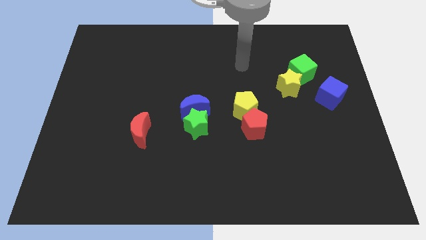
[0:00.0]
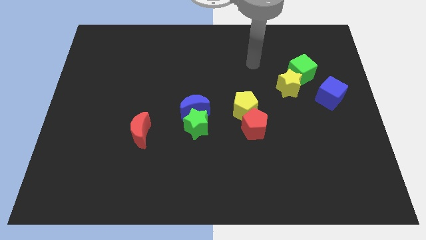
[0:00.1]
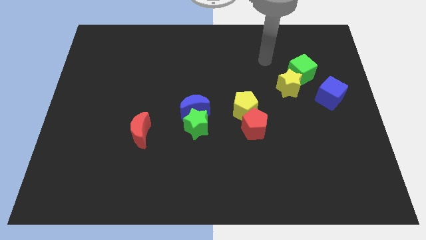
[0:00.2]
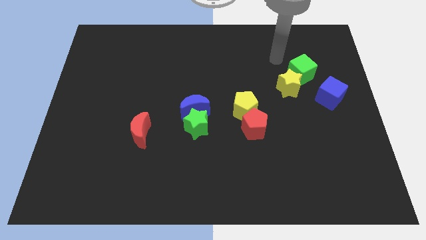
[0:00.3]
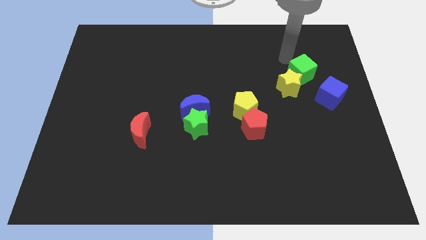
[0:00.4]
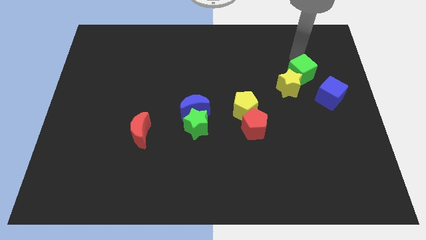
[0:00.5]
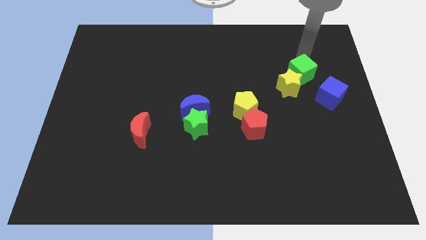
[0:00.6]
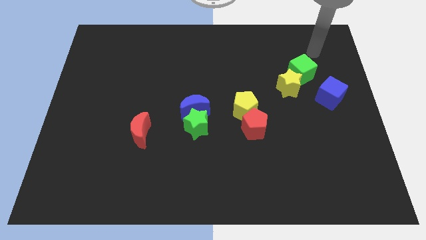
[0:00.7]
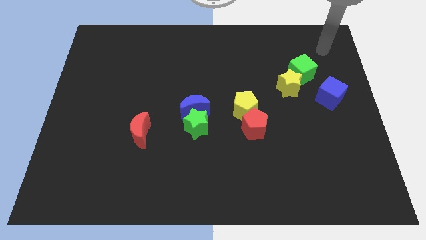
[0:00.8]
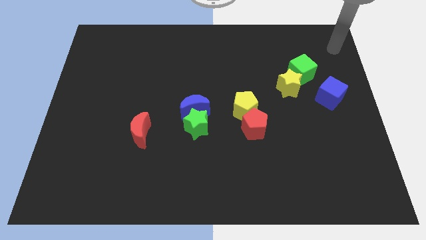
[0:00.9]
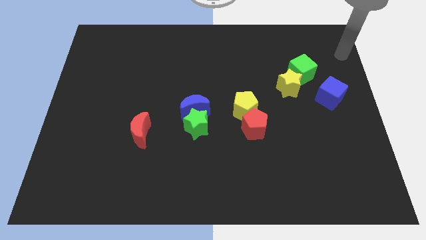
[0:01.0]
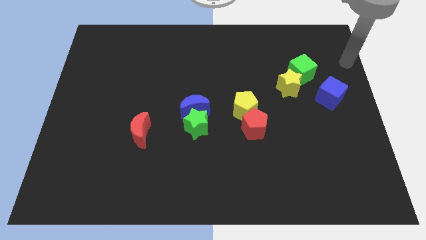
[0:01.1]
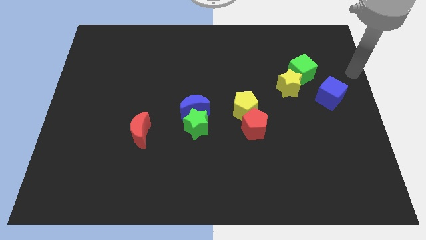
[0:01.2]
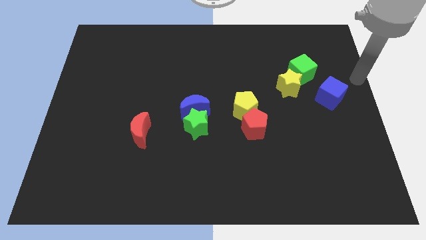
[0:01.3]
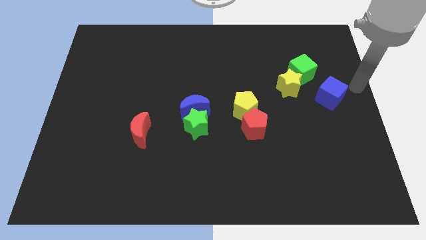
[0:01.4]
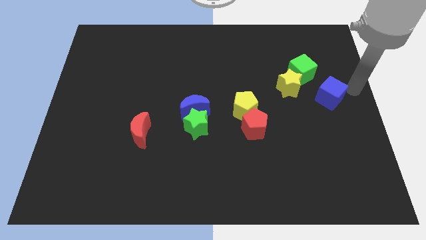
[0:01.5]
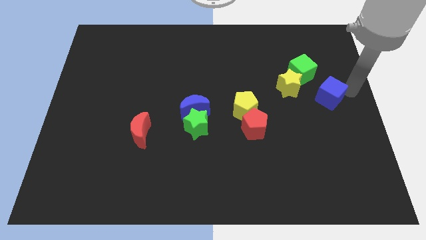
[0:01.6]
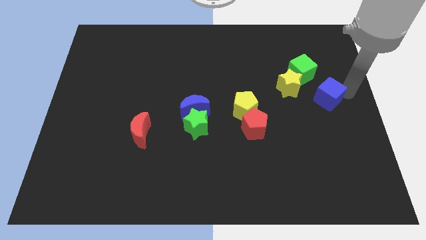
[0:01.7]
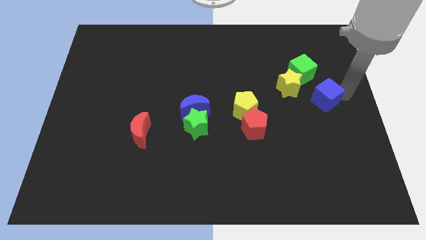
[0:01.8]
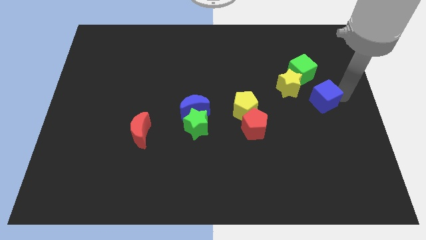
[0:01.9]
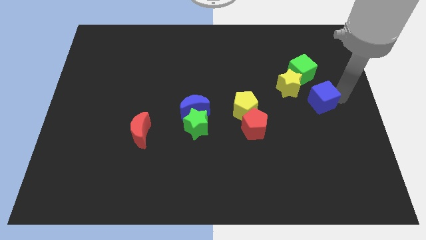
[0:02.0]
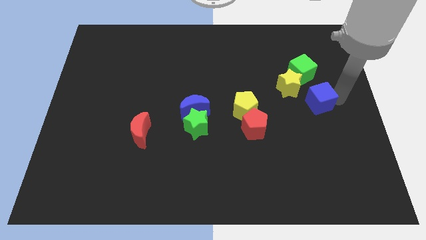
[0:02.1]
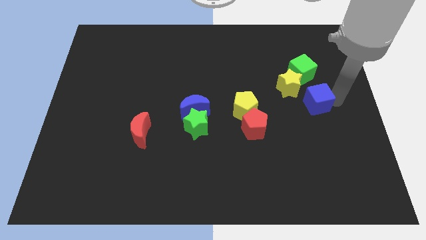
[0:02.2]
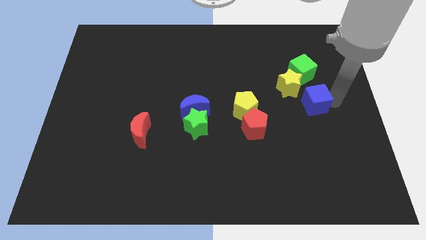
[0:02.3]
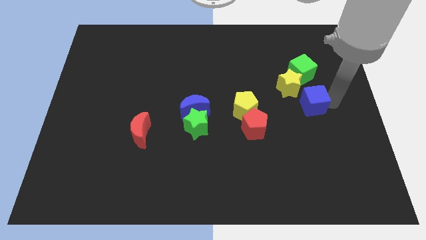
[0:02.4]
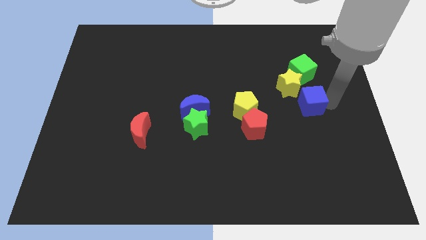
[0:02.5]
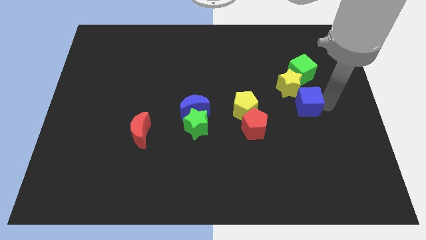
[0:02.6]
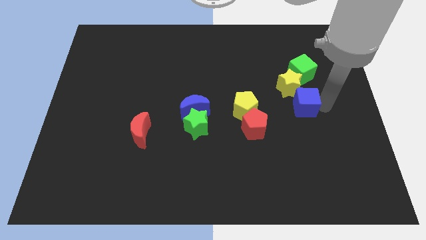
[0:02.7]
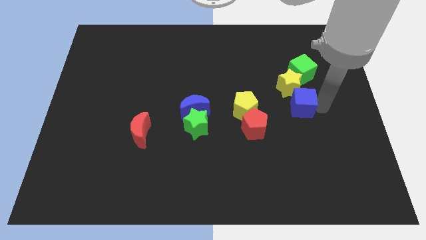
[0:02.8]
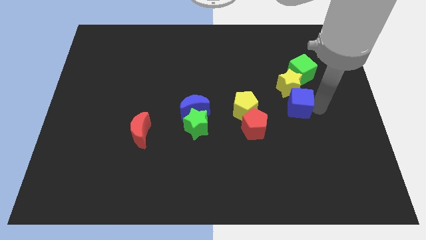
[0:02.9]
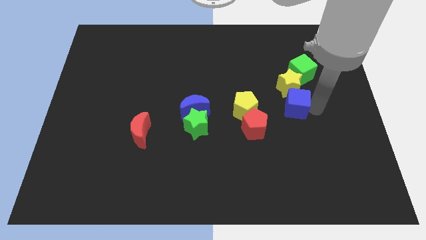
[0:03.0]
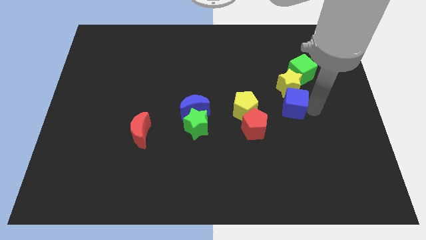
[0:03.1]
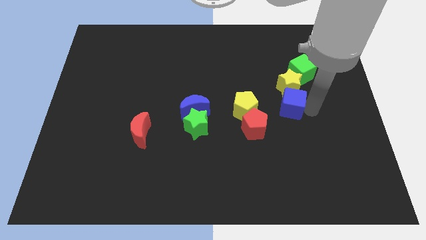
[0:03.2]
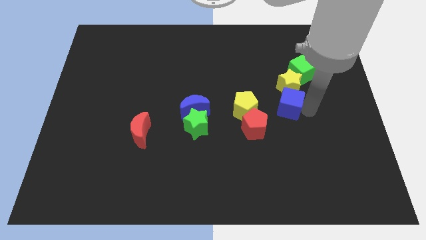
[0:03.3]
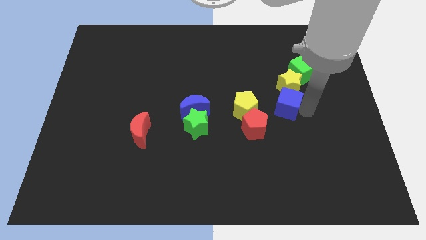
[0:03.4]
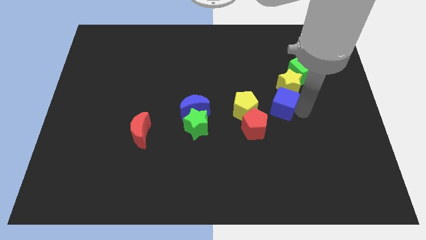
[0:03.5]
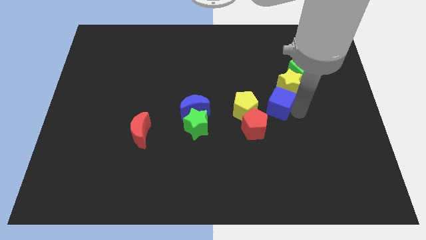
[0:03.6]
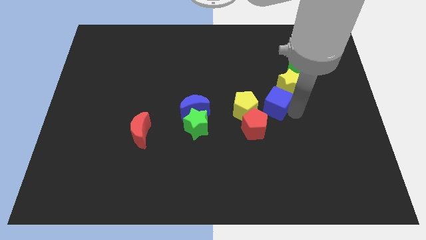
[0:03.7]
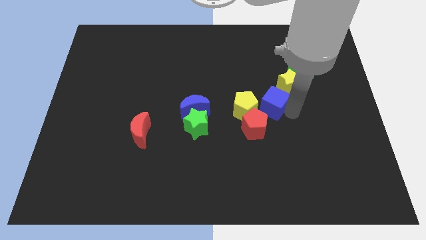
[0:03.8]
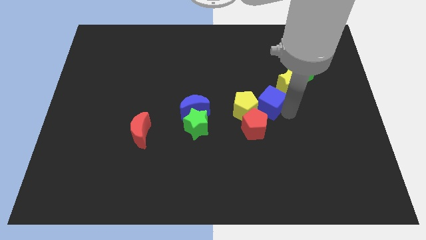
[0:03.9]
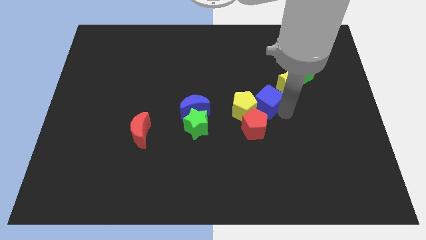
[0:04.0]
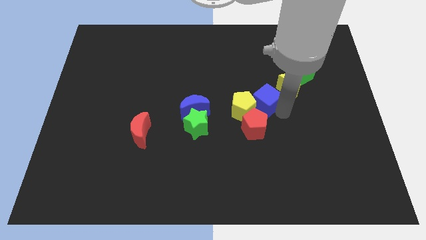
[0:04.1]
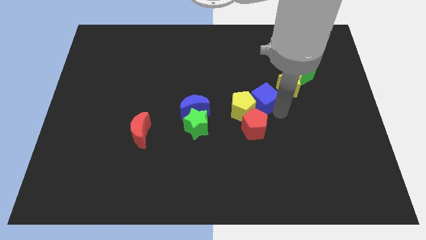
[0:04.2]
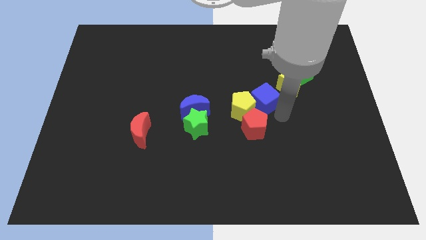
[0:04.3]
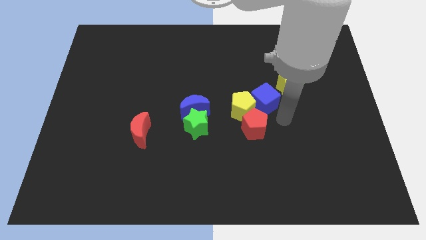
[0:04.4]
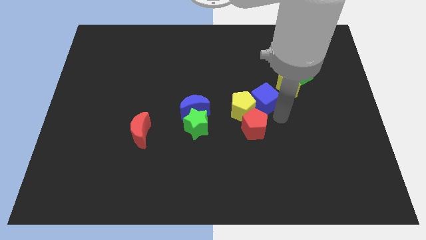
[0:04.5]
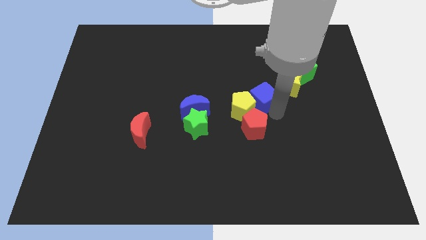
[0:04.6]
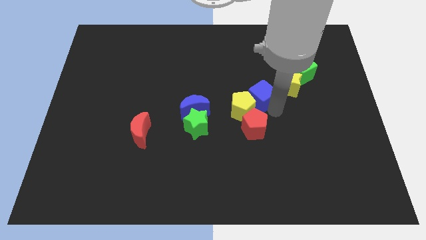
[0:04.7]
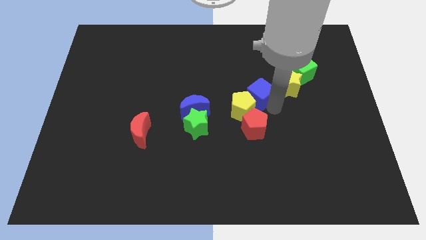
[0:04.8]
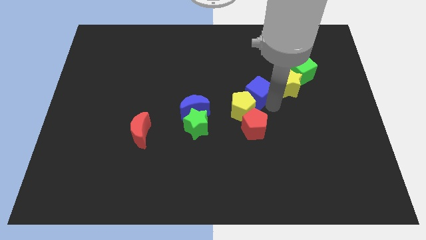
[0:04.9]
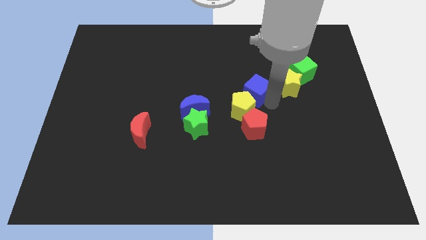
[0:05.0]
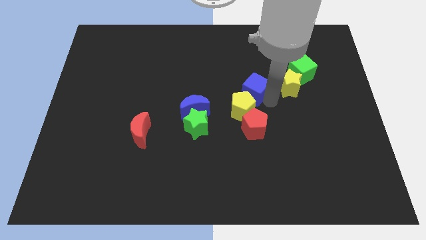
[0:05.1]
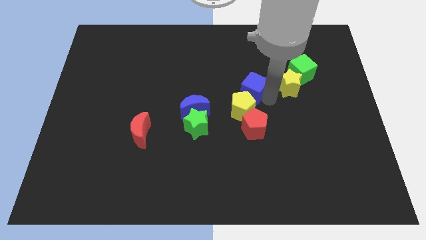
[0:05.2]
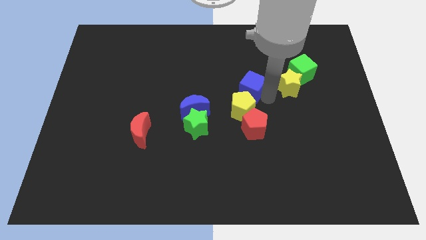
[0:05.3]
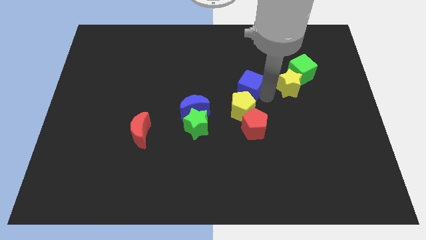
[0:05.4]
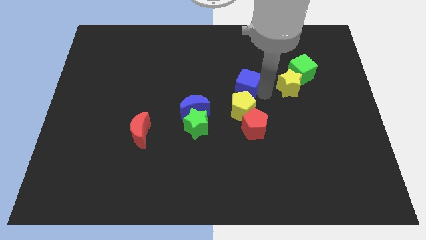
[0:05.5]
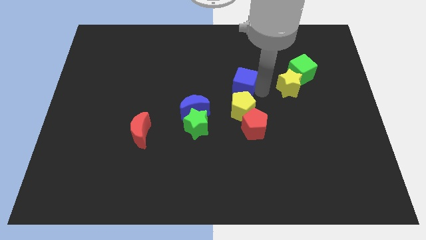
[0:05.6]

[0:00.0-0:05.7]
move the blue cube to the left

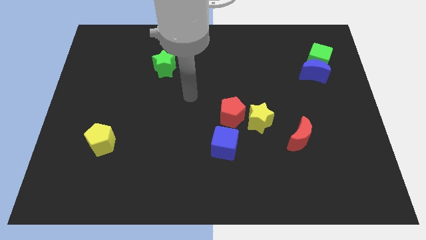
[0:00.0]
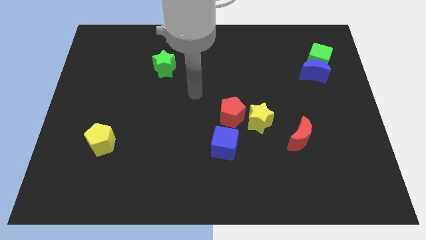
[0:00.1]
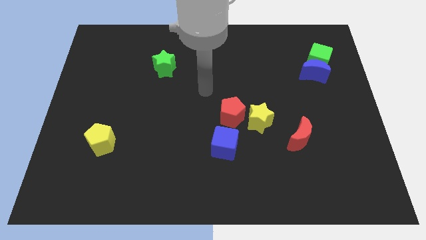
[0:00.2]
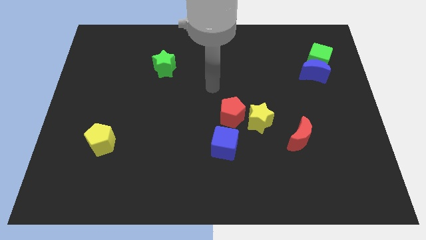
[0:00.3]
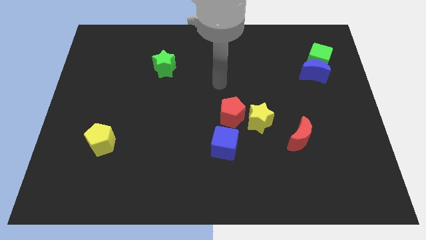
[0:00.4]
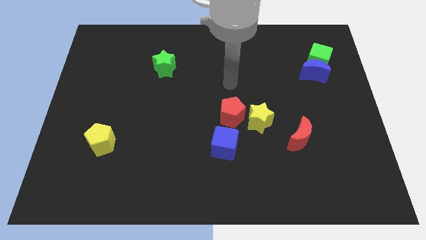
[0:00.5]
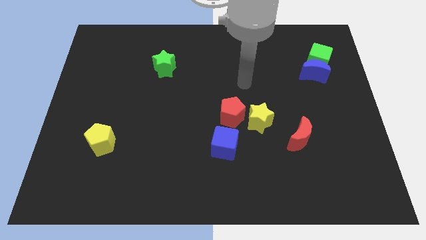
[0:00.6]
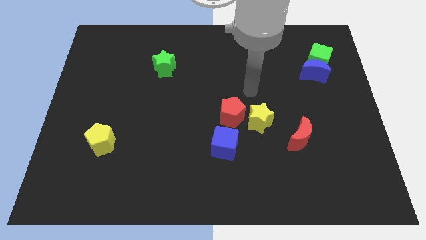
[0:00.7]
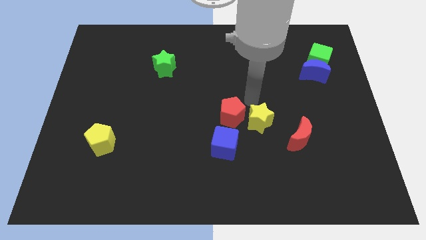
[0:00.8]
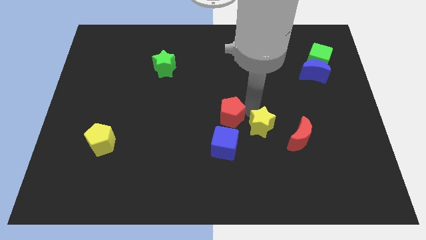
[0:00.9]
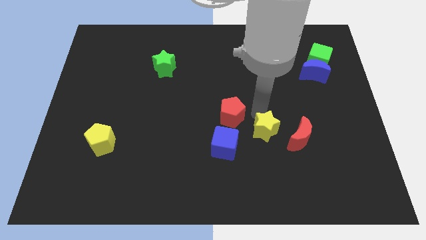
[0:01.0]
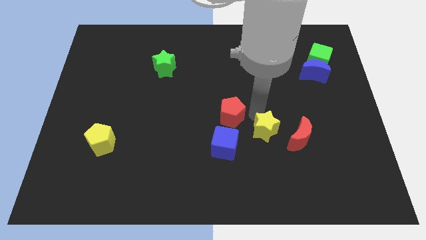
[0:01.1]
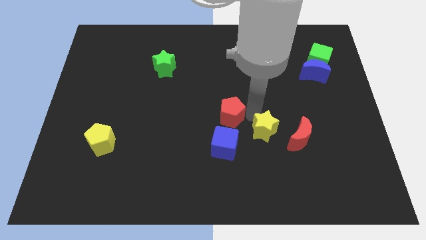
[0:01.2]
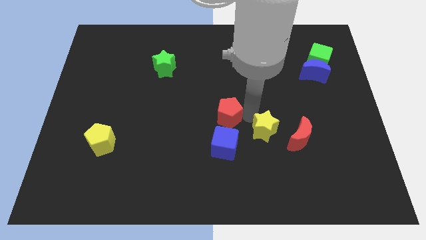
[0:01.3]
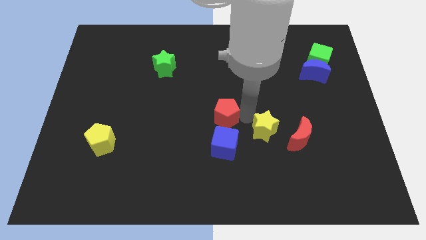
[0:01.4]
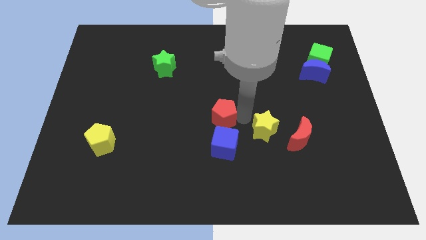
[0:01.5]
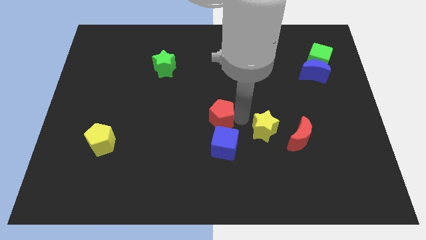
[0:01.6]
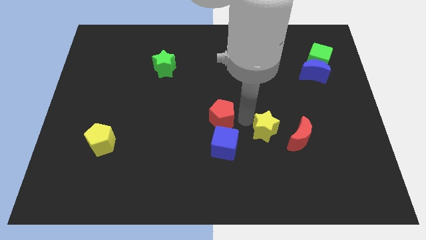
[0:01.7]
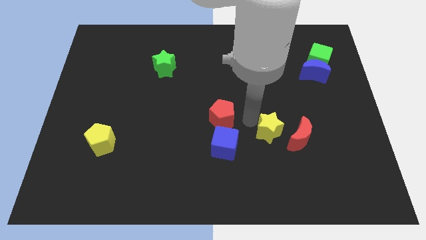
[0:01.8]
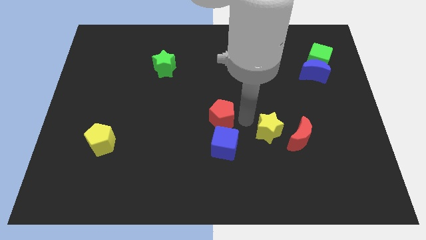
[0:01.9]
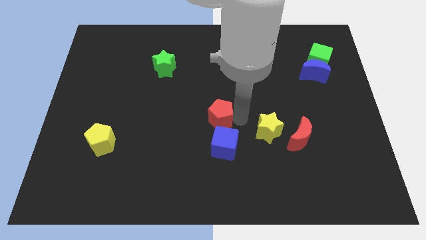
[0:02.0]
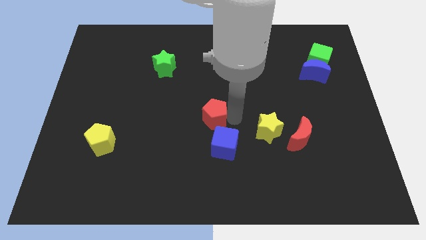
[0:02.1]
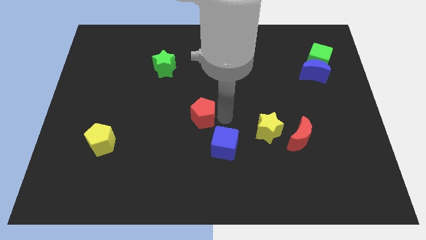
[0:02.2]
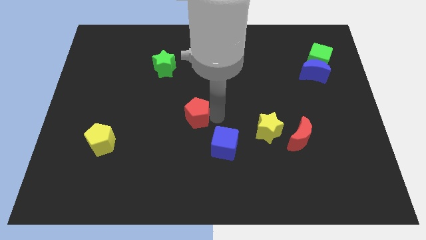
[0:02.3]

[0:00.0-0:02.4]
slide the red pentagon left a little

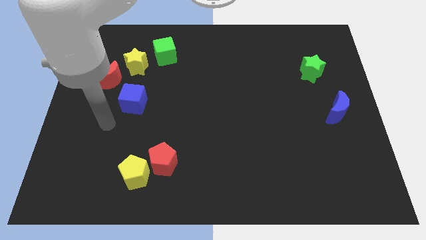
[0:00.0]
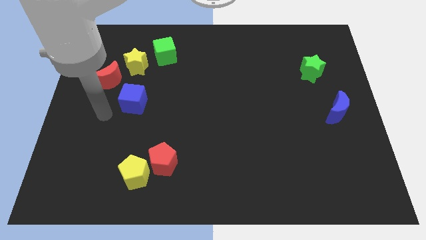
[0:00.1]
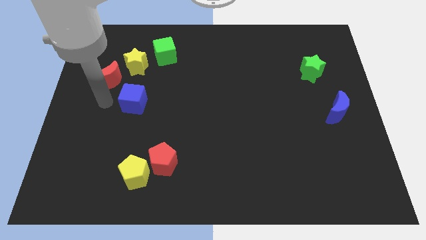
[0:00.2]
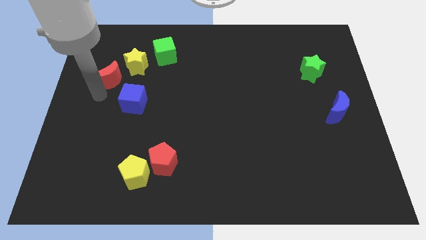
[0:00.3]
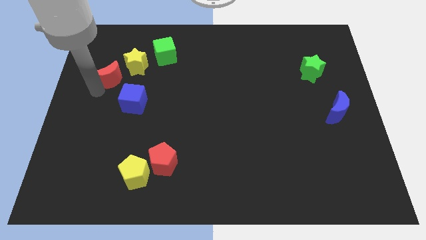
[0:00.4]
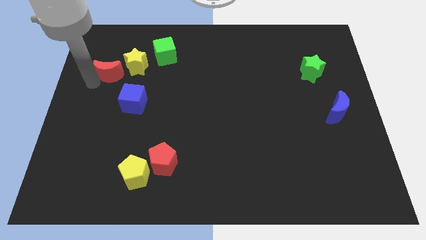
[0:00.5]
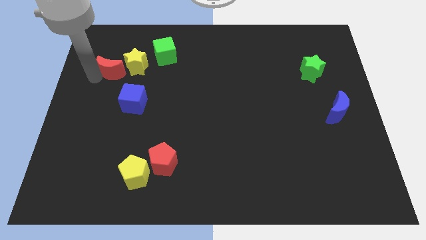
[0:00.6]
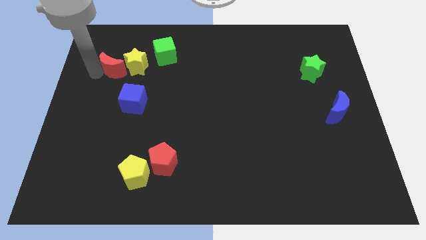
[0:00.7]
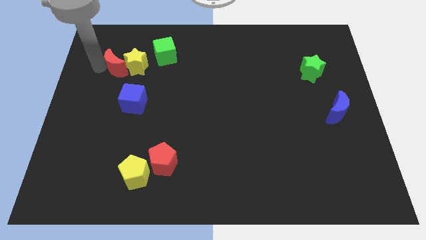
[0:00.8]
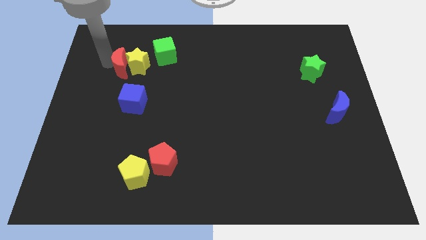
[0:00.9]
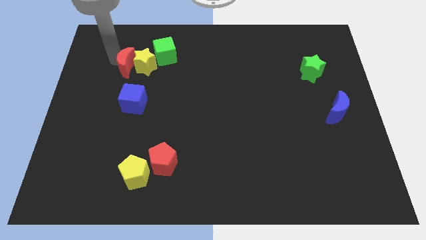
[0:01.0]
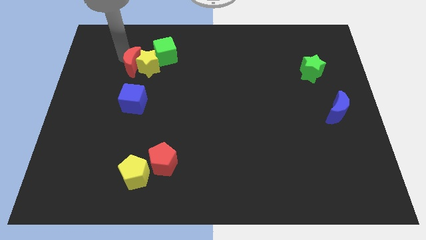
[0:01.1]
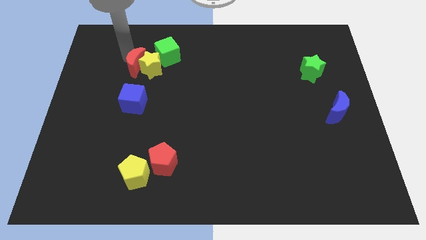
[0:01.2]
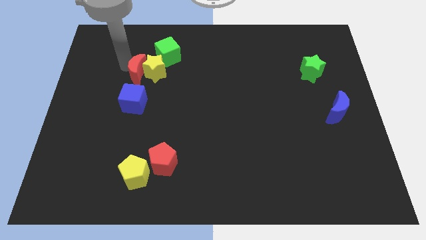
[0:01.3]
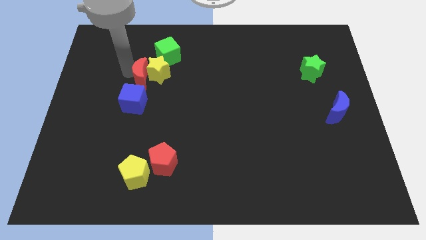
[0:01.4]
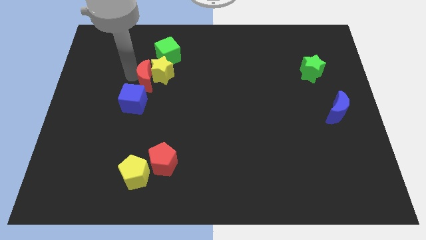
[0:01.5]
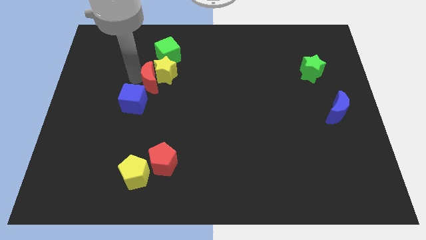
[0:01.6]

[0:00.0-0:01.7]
move the yellow star a bit to the right
